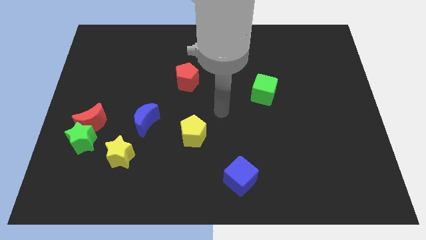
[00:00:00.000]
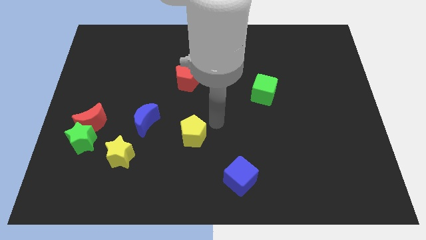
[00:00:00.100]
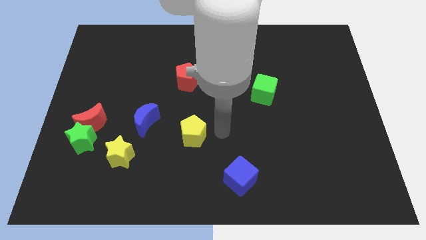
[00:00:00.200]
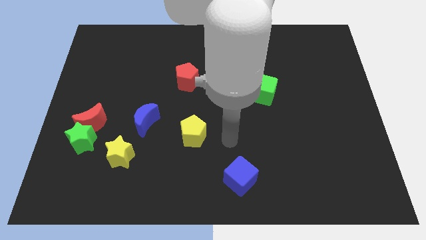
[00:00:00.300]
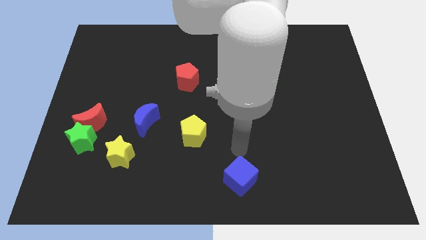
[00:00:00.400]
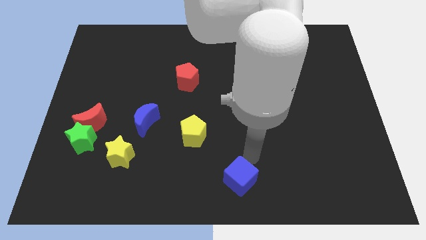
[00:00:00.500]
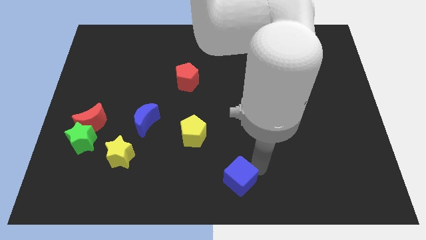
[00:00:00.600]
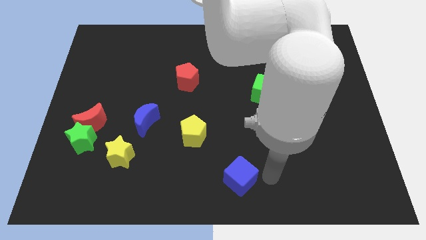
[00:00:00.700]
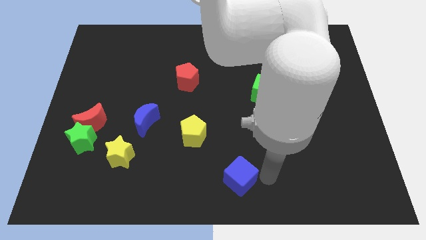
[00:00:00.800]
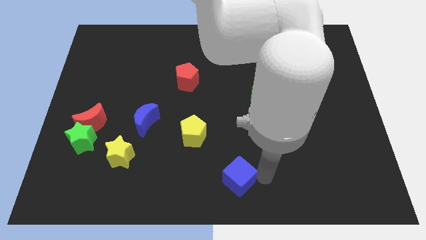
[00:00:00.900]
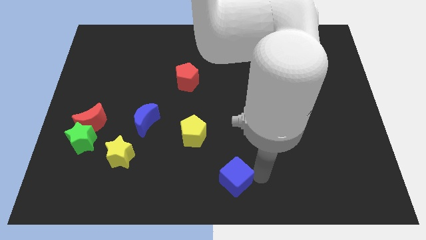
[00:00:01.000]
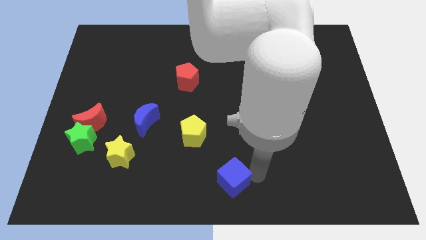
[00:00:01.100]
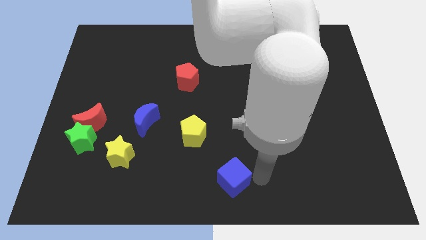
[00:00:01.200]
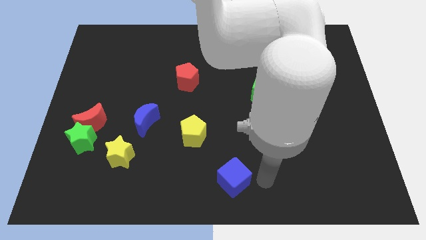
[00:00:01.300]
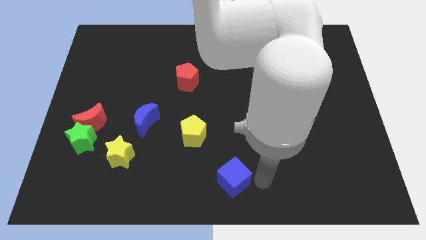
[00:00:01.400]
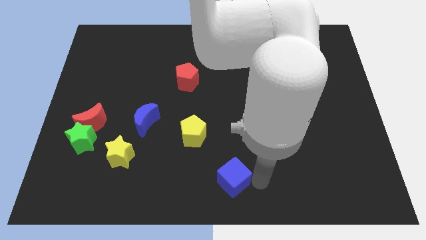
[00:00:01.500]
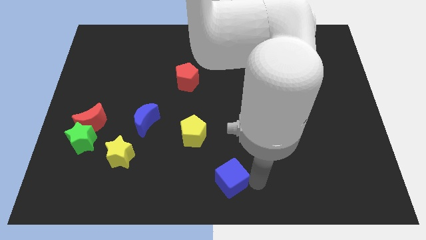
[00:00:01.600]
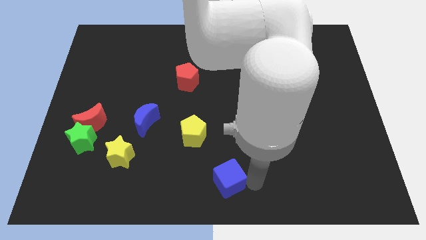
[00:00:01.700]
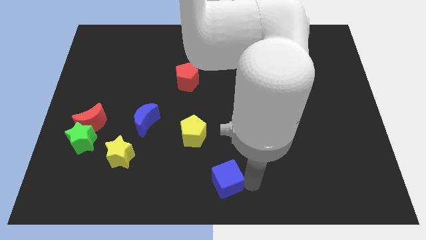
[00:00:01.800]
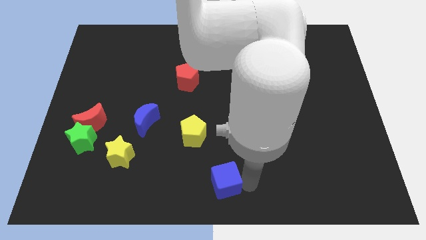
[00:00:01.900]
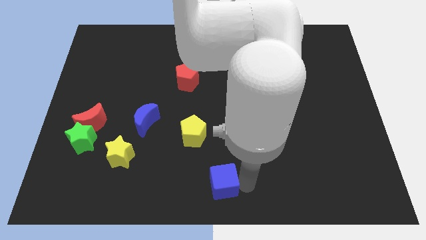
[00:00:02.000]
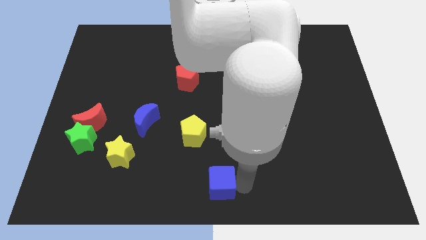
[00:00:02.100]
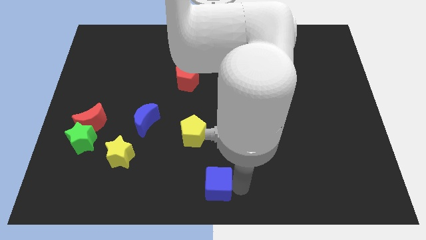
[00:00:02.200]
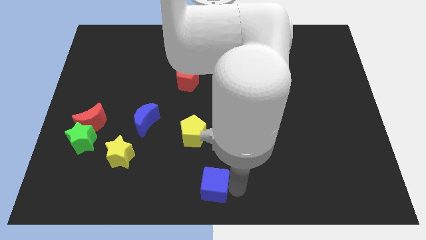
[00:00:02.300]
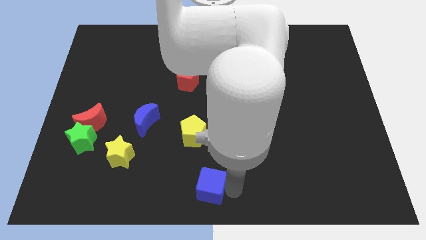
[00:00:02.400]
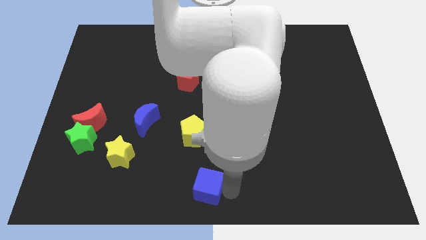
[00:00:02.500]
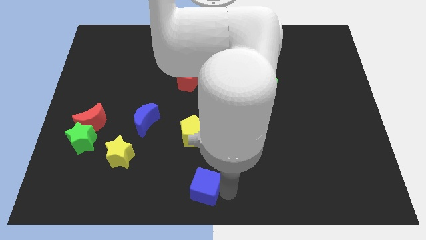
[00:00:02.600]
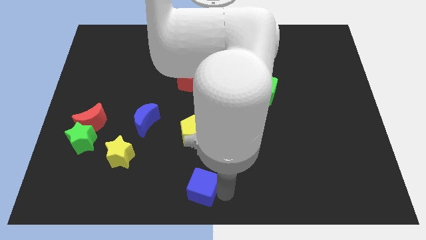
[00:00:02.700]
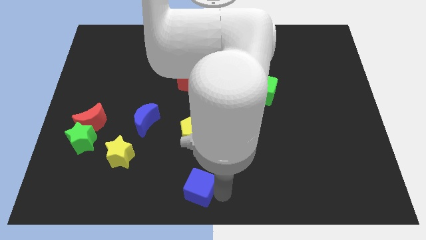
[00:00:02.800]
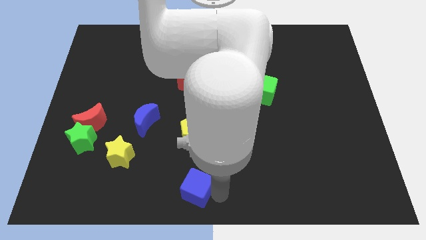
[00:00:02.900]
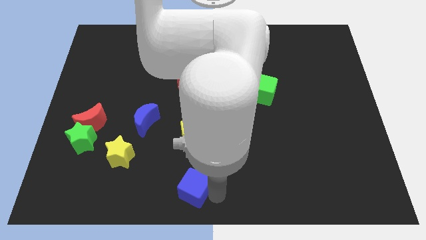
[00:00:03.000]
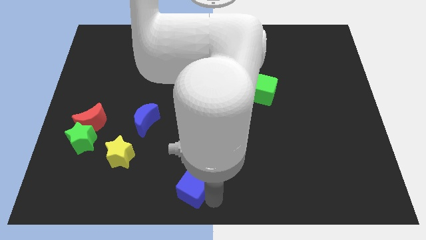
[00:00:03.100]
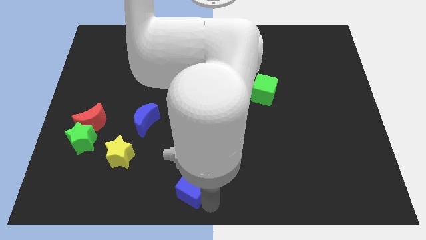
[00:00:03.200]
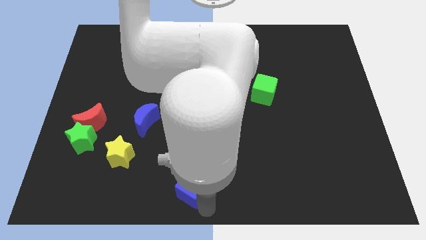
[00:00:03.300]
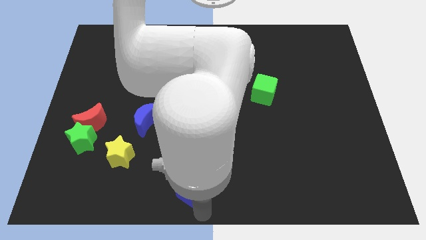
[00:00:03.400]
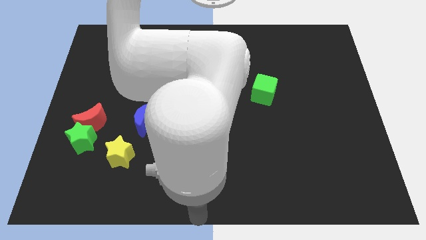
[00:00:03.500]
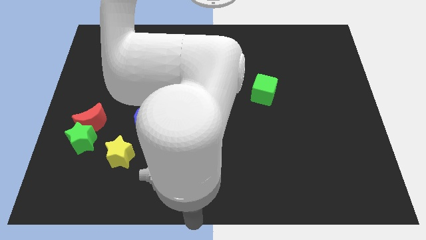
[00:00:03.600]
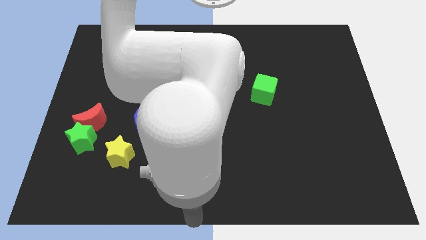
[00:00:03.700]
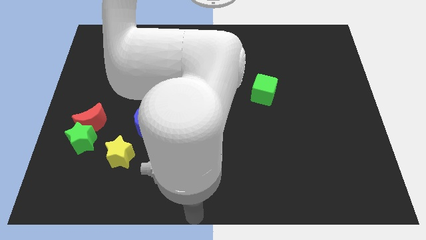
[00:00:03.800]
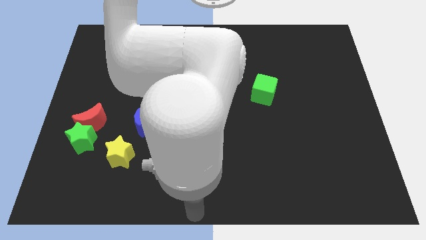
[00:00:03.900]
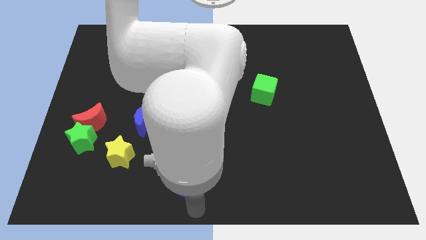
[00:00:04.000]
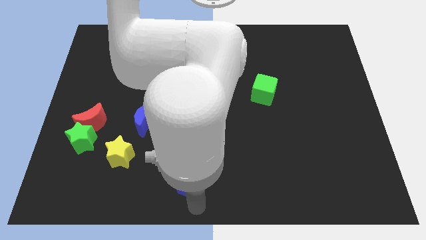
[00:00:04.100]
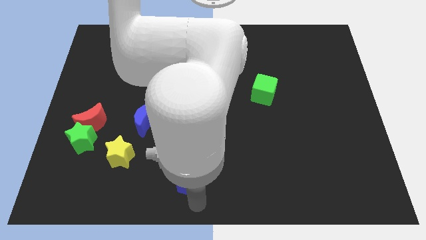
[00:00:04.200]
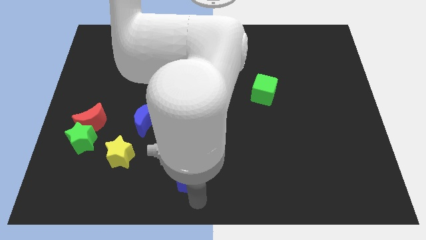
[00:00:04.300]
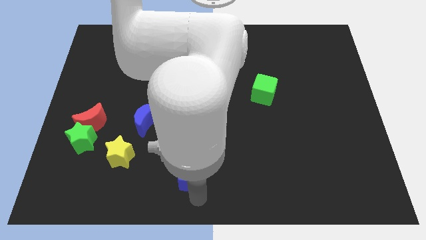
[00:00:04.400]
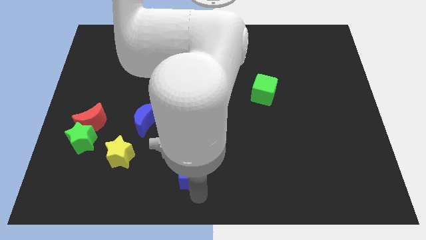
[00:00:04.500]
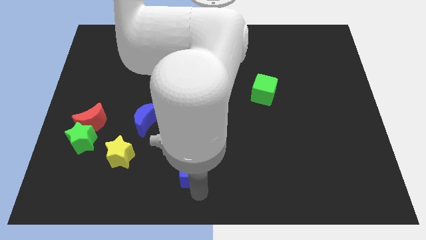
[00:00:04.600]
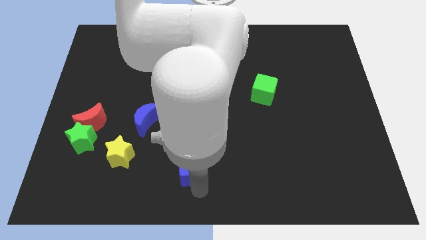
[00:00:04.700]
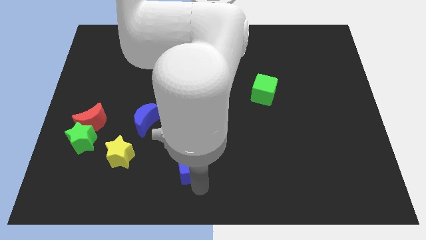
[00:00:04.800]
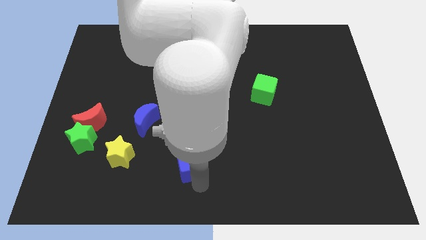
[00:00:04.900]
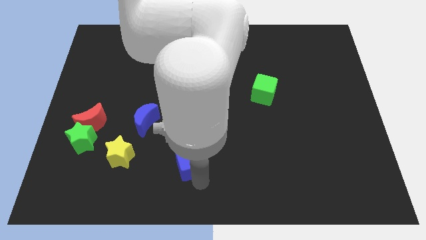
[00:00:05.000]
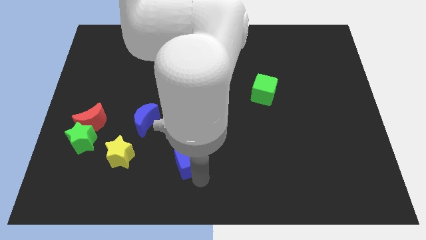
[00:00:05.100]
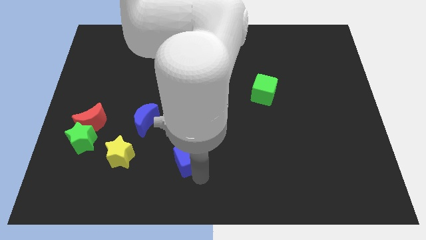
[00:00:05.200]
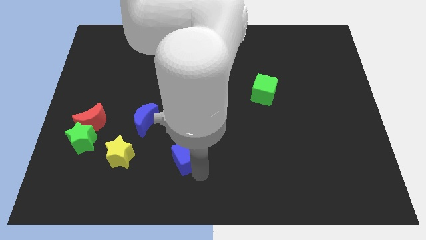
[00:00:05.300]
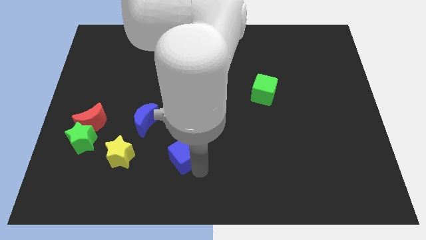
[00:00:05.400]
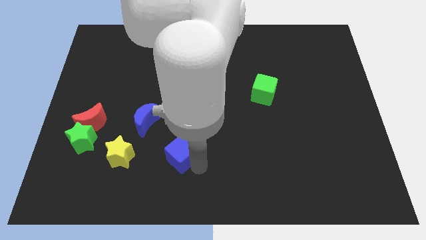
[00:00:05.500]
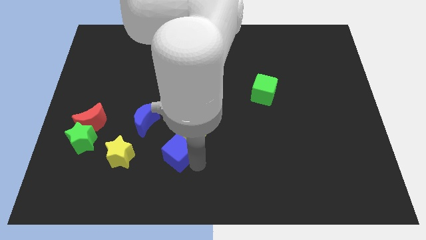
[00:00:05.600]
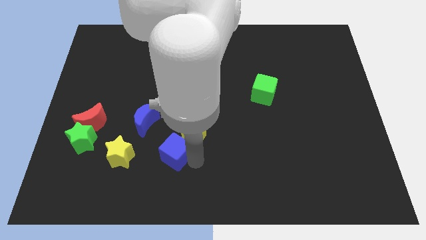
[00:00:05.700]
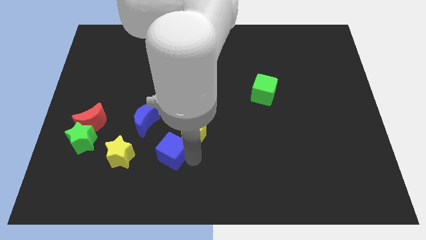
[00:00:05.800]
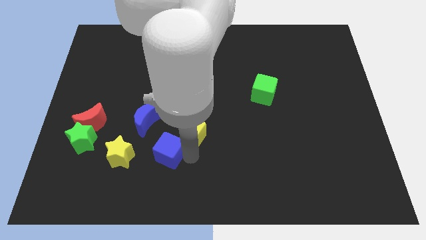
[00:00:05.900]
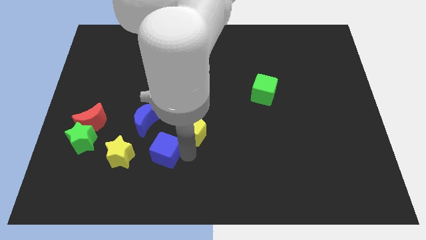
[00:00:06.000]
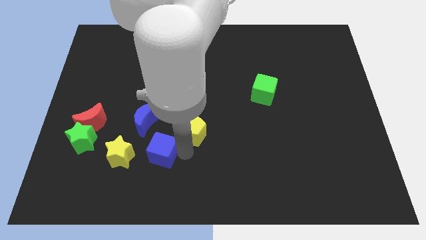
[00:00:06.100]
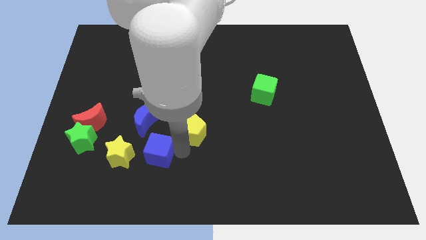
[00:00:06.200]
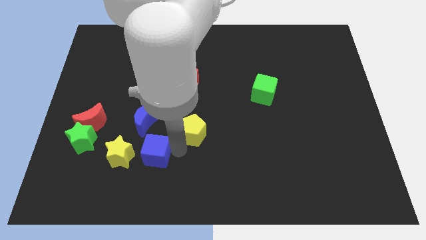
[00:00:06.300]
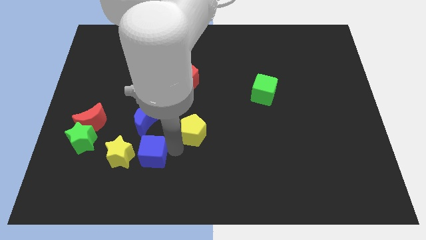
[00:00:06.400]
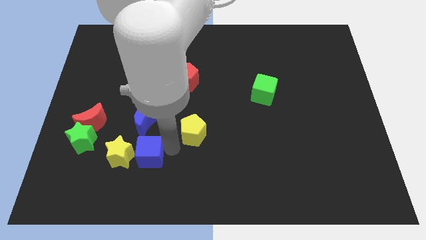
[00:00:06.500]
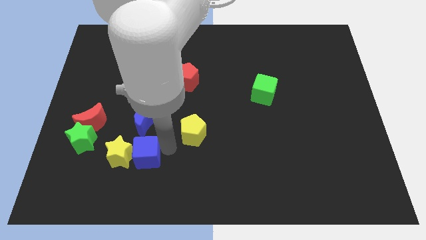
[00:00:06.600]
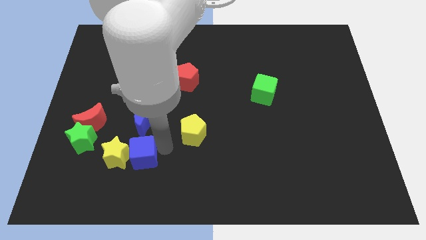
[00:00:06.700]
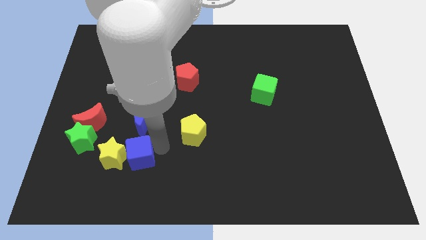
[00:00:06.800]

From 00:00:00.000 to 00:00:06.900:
move the blue cube to the left

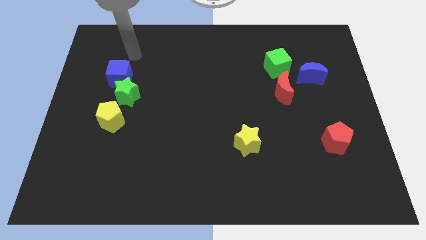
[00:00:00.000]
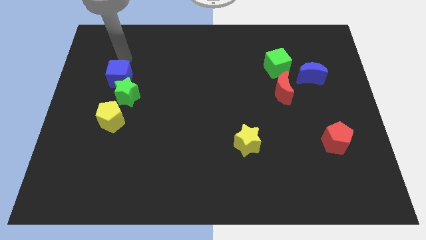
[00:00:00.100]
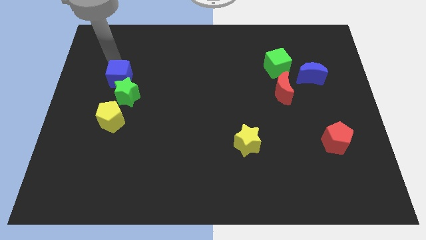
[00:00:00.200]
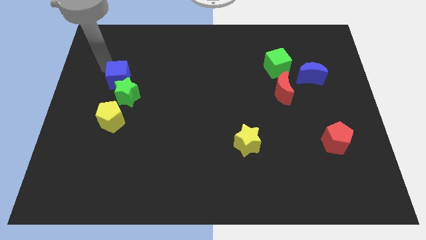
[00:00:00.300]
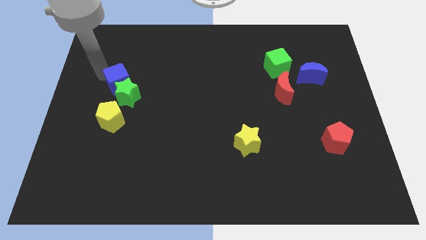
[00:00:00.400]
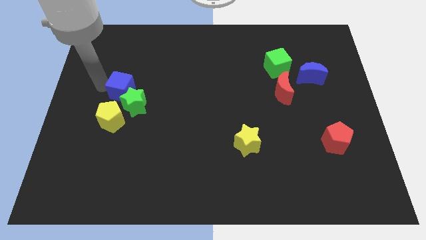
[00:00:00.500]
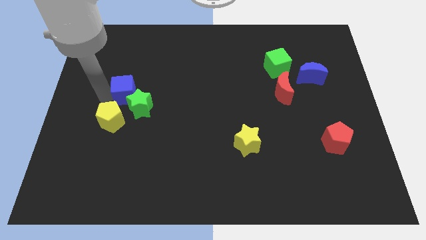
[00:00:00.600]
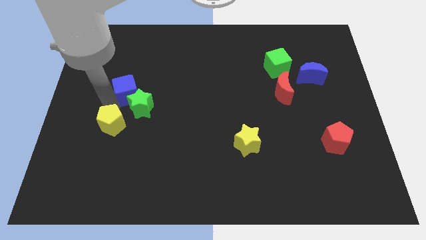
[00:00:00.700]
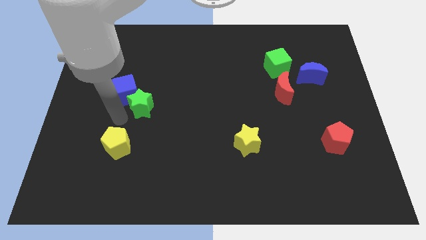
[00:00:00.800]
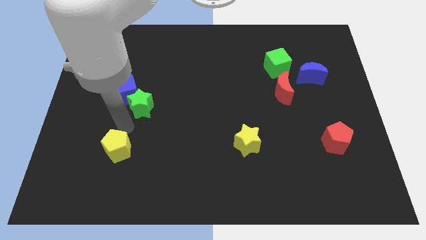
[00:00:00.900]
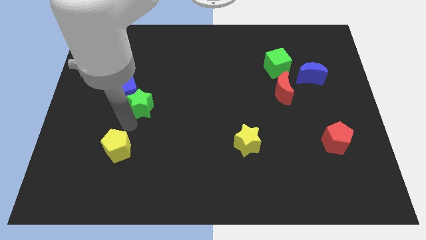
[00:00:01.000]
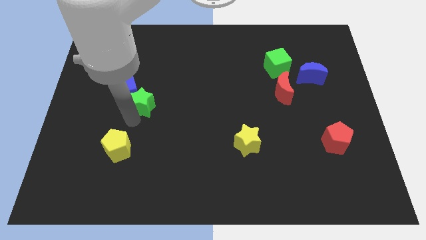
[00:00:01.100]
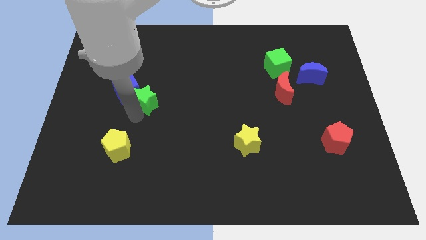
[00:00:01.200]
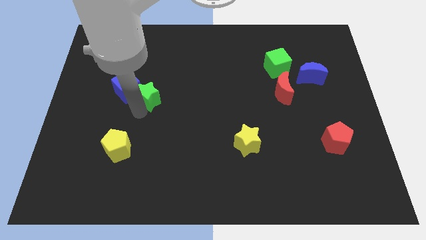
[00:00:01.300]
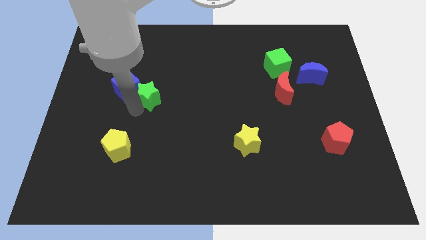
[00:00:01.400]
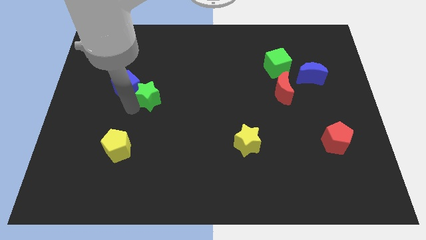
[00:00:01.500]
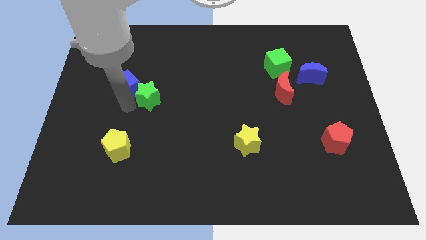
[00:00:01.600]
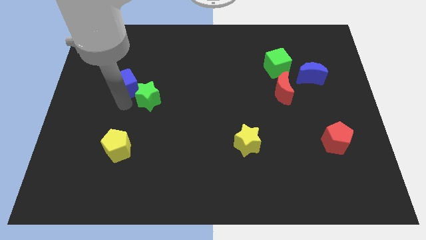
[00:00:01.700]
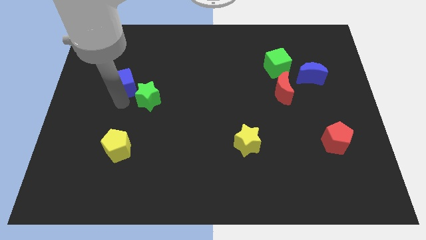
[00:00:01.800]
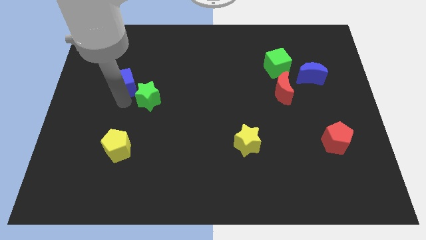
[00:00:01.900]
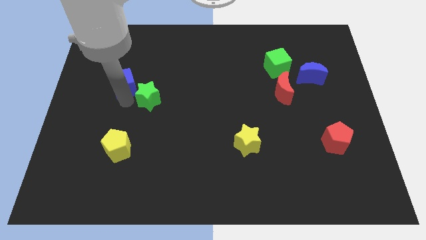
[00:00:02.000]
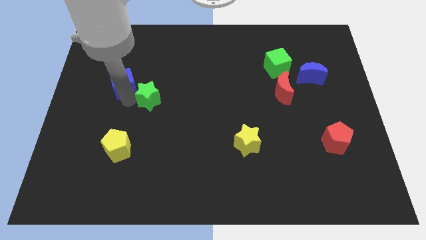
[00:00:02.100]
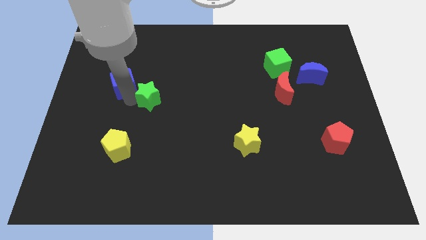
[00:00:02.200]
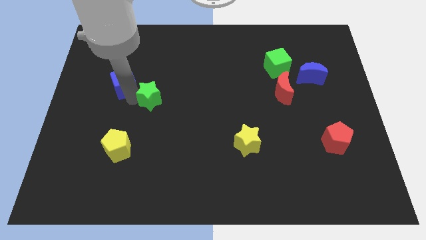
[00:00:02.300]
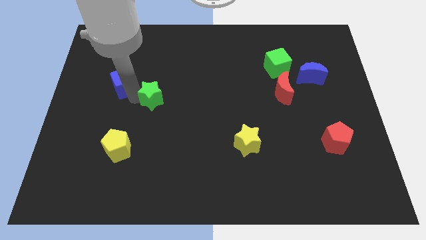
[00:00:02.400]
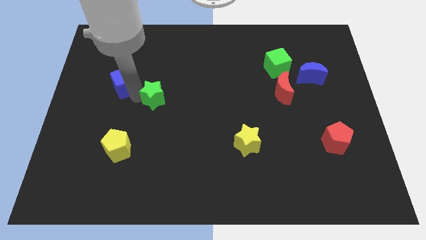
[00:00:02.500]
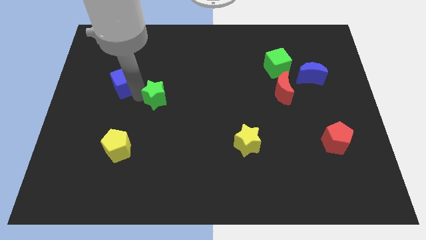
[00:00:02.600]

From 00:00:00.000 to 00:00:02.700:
push the green star to the right a little bit
